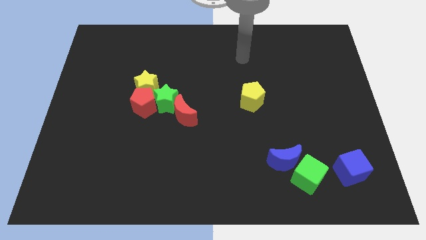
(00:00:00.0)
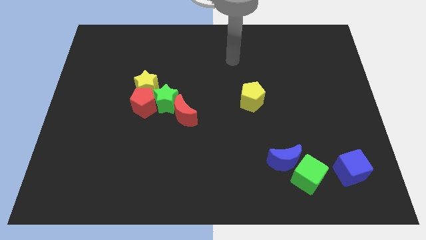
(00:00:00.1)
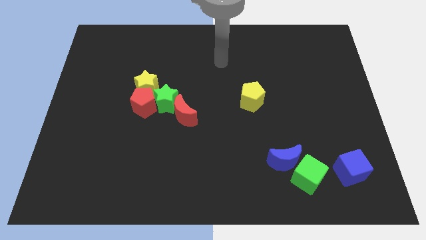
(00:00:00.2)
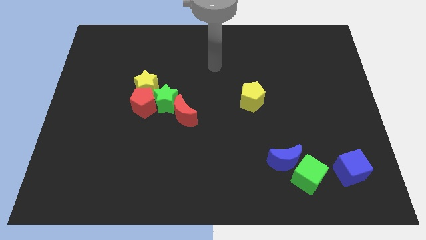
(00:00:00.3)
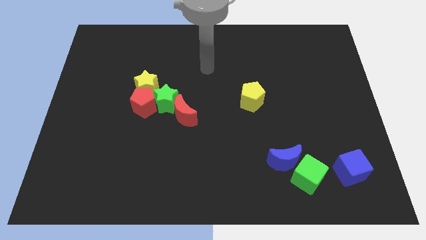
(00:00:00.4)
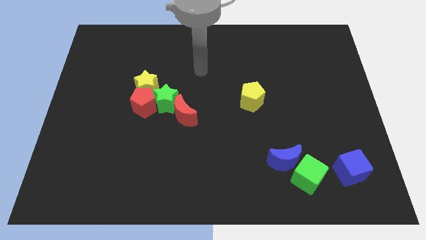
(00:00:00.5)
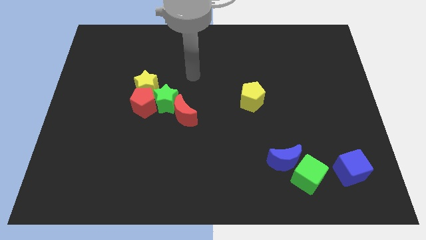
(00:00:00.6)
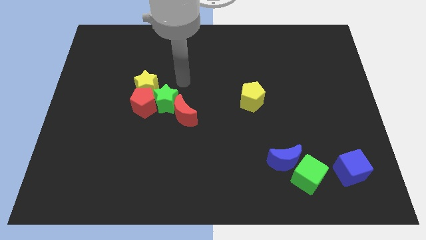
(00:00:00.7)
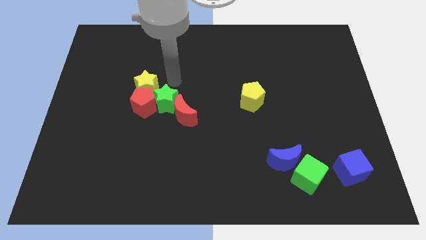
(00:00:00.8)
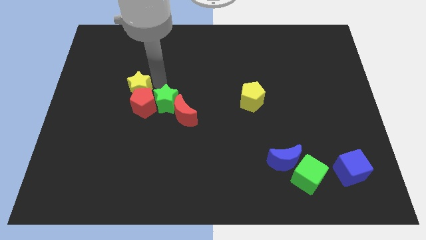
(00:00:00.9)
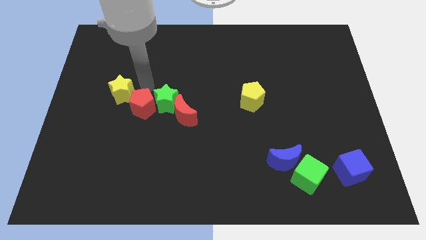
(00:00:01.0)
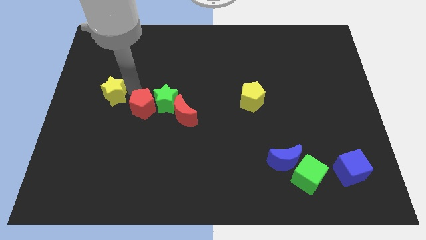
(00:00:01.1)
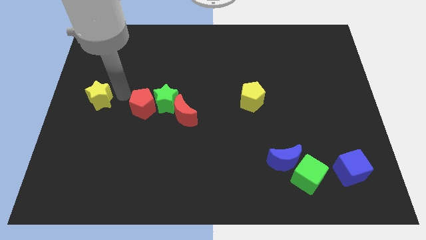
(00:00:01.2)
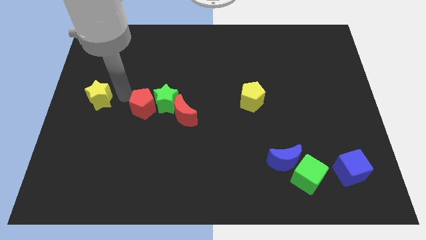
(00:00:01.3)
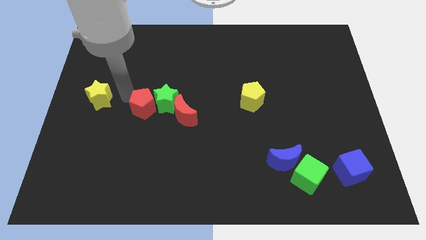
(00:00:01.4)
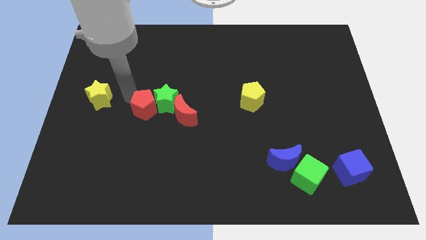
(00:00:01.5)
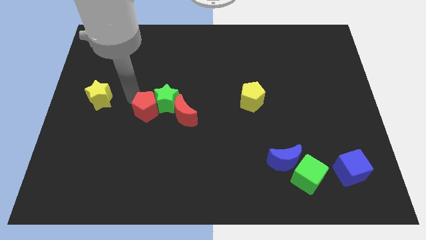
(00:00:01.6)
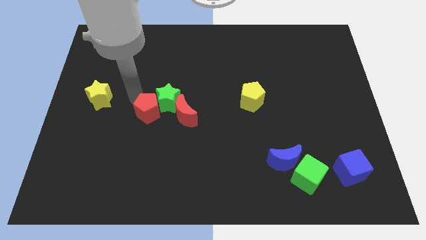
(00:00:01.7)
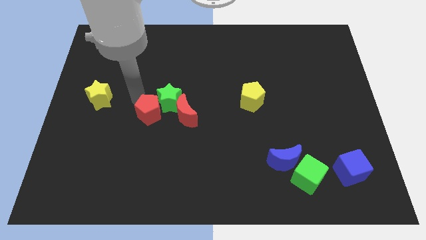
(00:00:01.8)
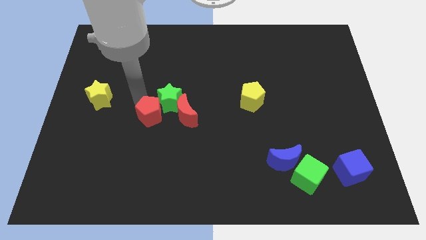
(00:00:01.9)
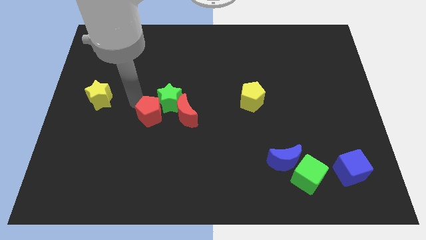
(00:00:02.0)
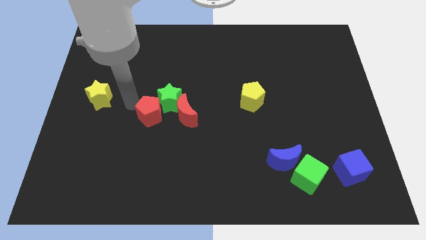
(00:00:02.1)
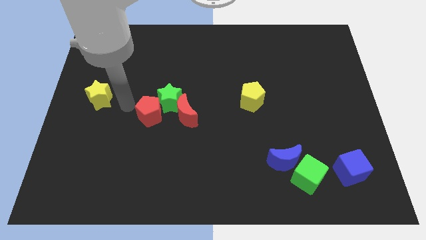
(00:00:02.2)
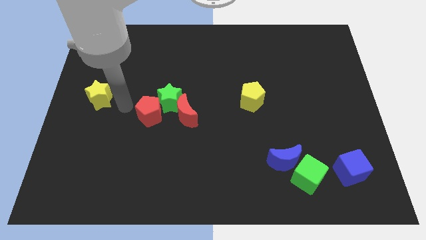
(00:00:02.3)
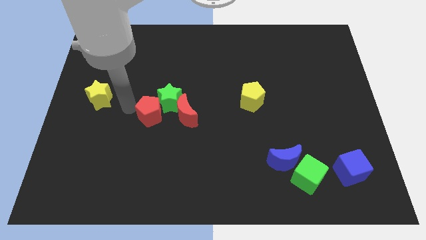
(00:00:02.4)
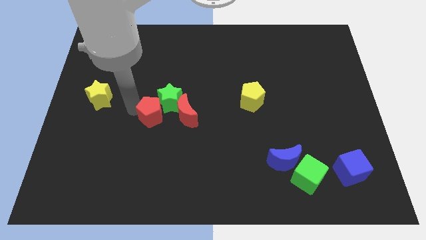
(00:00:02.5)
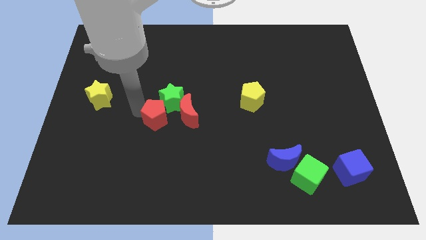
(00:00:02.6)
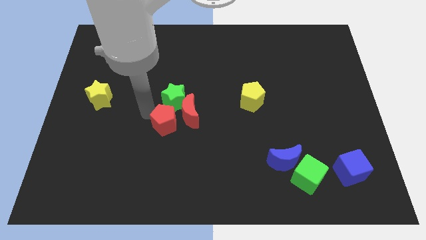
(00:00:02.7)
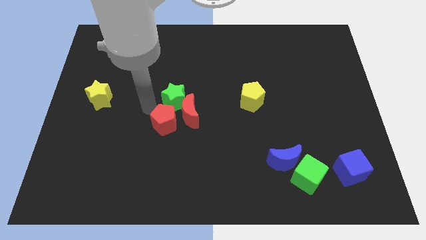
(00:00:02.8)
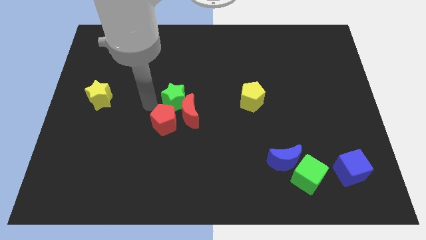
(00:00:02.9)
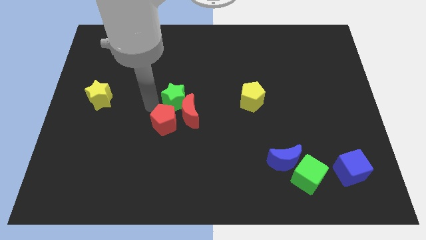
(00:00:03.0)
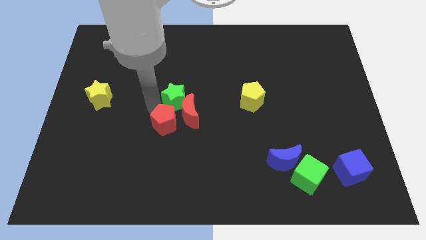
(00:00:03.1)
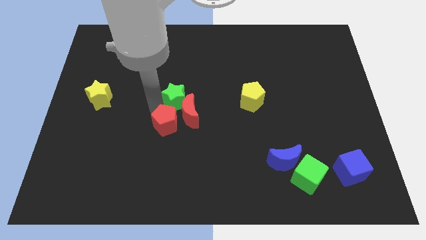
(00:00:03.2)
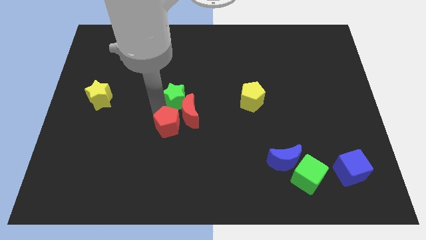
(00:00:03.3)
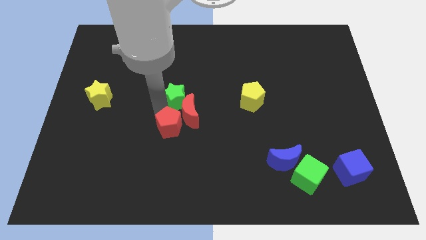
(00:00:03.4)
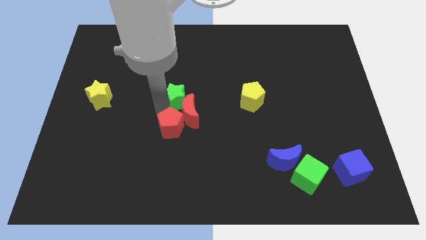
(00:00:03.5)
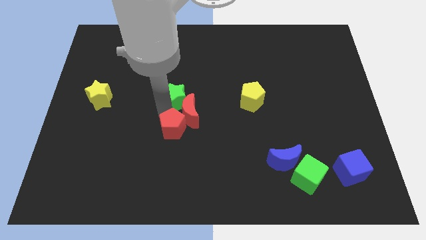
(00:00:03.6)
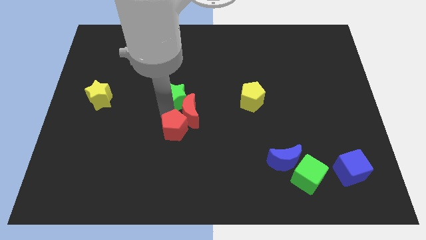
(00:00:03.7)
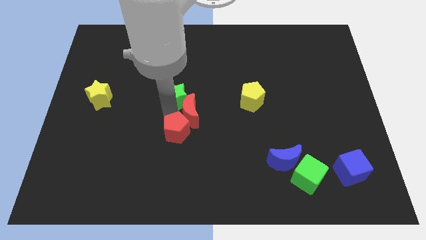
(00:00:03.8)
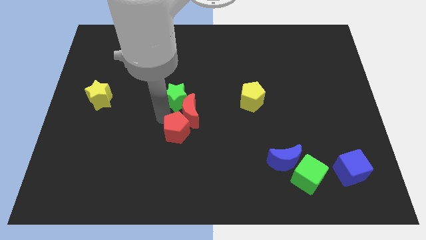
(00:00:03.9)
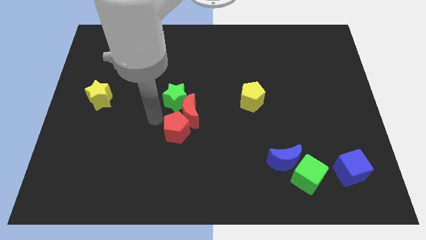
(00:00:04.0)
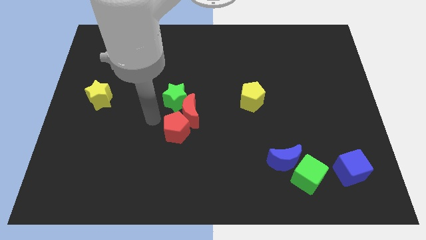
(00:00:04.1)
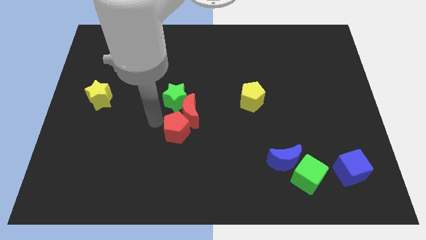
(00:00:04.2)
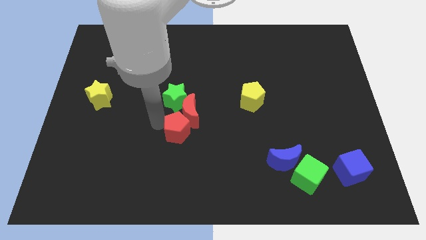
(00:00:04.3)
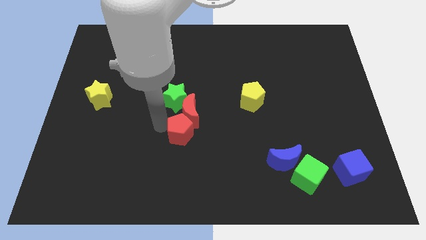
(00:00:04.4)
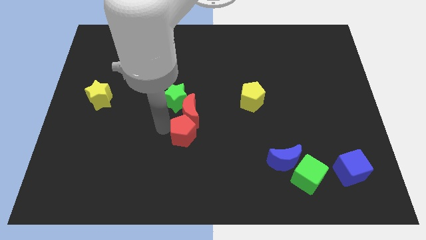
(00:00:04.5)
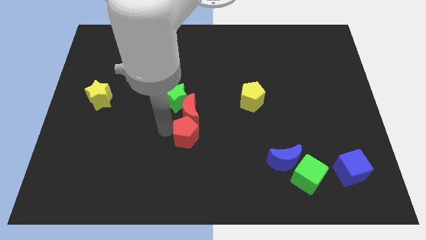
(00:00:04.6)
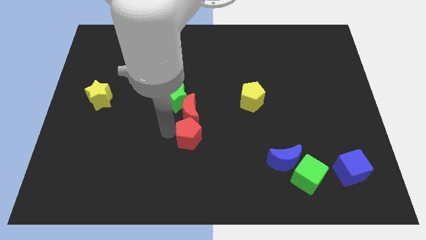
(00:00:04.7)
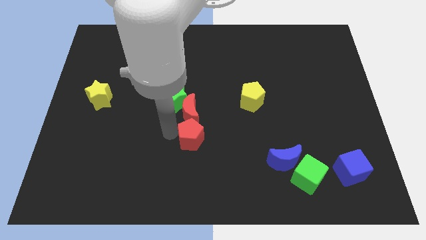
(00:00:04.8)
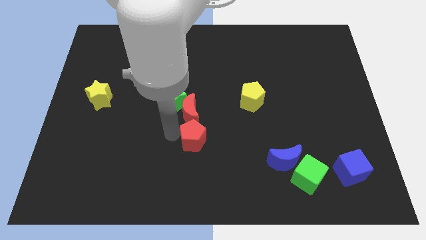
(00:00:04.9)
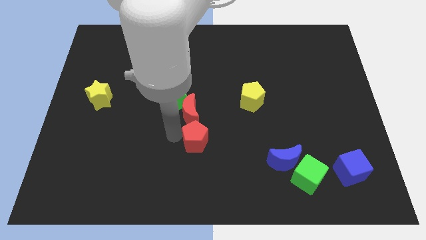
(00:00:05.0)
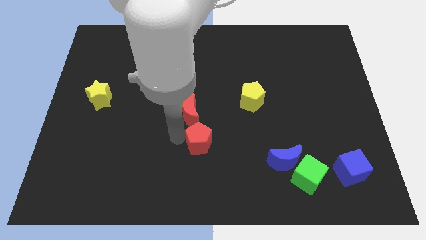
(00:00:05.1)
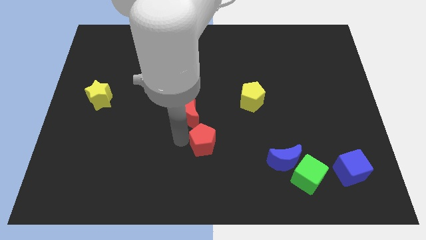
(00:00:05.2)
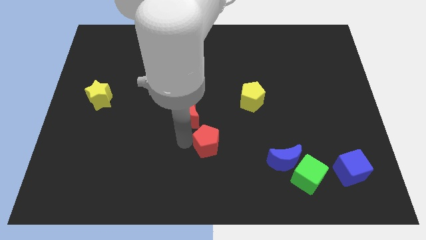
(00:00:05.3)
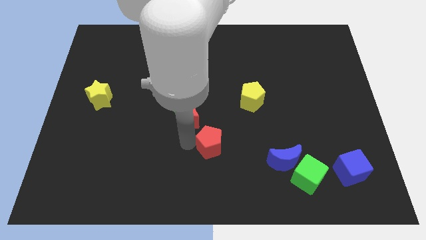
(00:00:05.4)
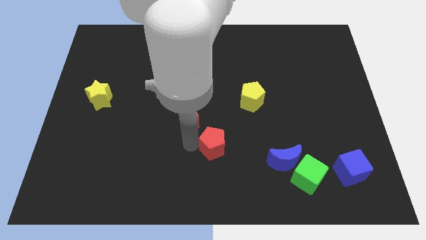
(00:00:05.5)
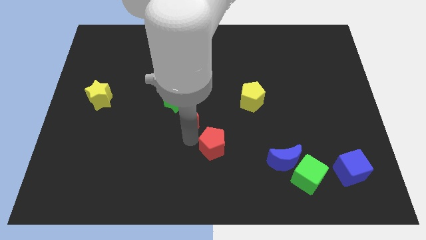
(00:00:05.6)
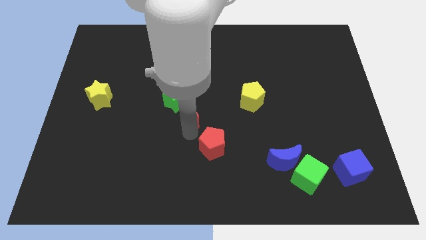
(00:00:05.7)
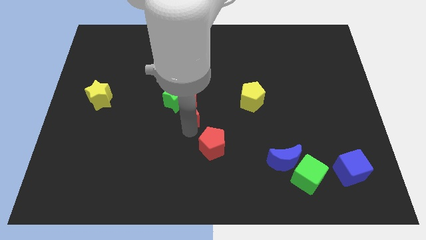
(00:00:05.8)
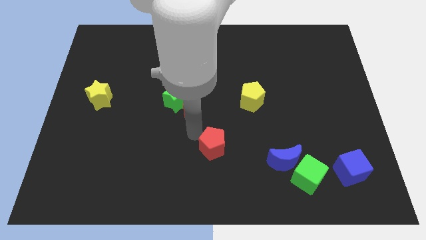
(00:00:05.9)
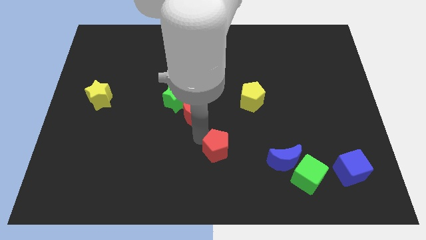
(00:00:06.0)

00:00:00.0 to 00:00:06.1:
put the red pentagon to the left of the blue moon

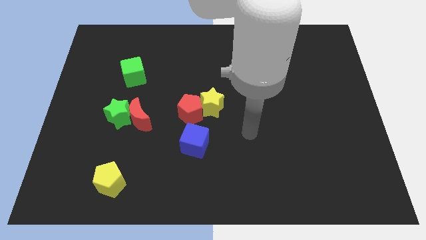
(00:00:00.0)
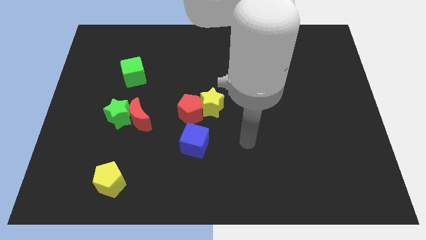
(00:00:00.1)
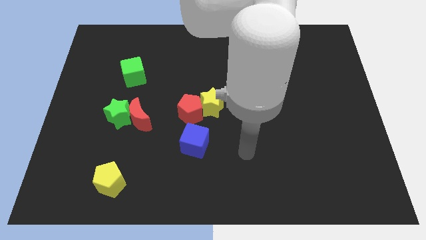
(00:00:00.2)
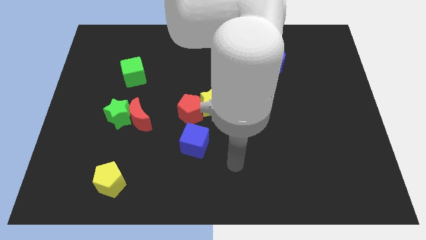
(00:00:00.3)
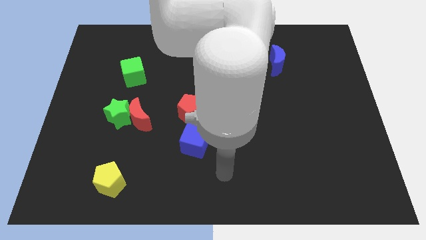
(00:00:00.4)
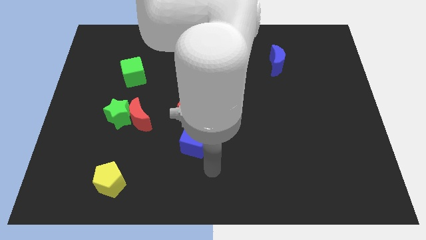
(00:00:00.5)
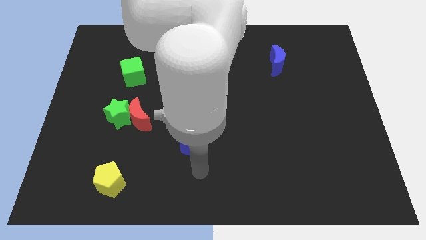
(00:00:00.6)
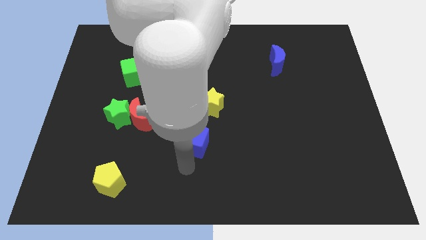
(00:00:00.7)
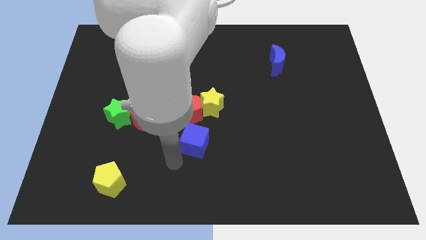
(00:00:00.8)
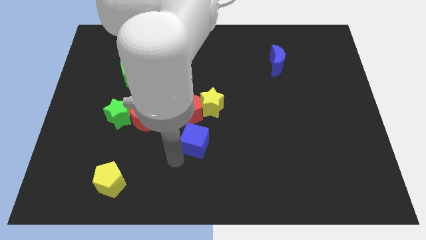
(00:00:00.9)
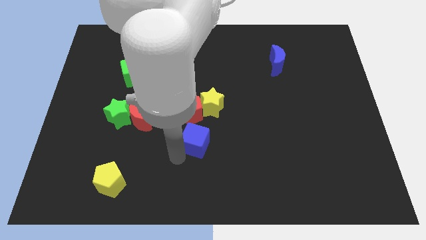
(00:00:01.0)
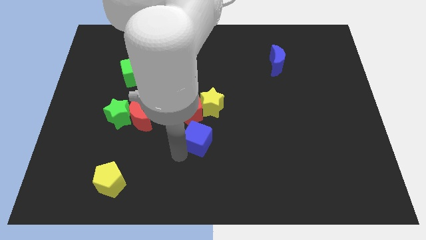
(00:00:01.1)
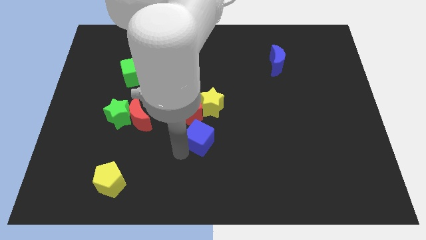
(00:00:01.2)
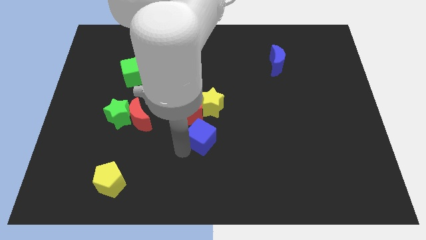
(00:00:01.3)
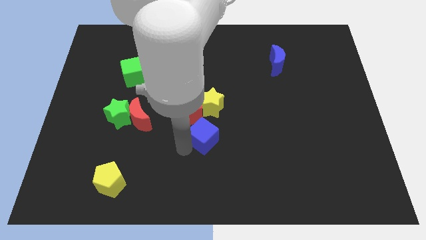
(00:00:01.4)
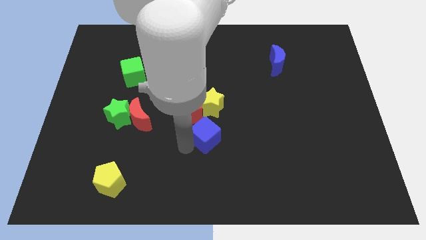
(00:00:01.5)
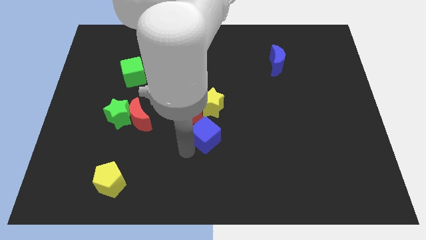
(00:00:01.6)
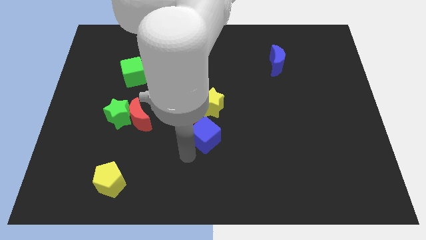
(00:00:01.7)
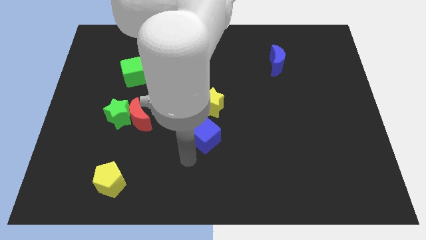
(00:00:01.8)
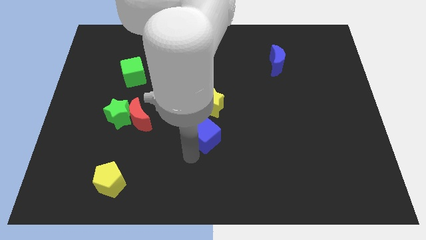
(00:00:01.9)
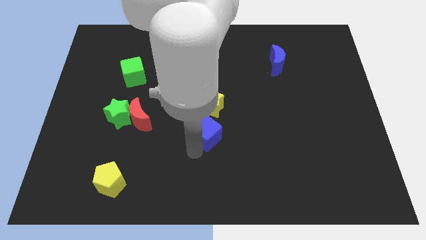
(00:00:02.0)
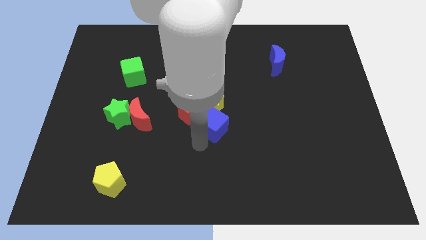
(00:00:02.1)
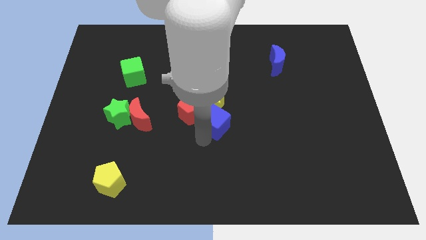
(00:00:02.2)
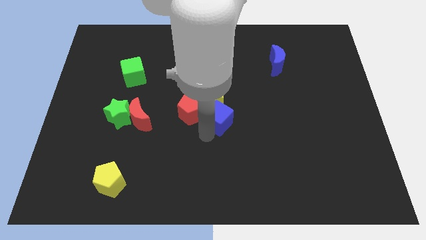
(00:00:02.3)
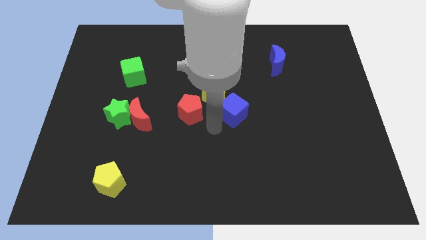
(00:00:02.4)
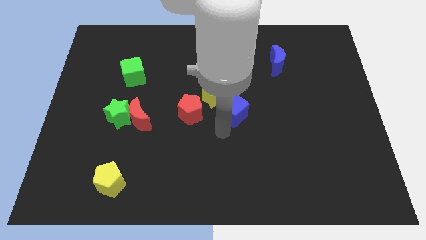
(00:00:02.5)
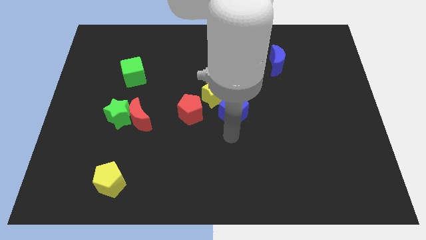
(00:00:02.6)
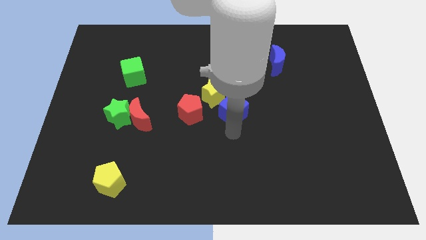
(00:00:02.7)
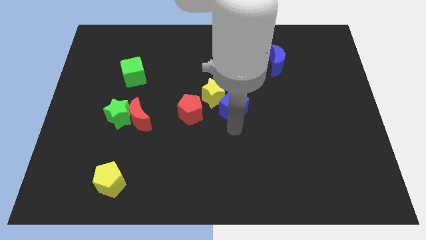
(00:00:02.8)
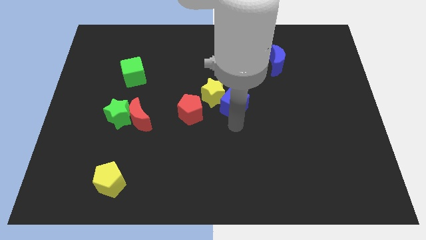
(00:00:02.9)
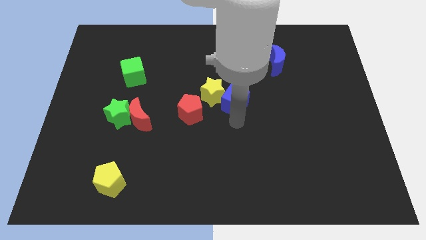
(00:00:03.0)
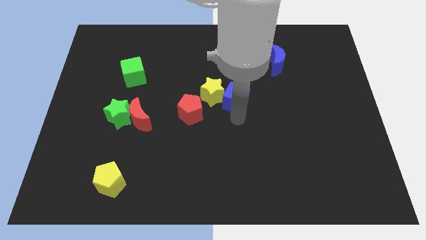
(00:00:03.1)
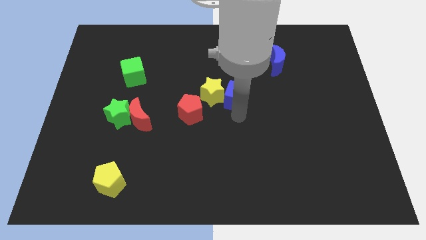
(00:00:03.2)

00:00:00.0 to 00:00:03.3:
push the blue cube to the top right of the yellow star
